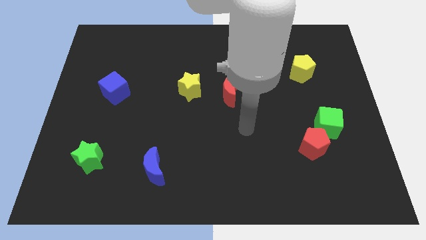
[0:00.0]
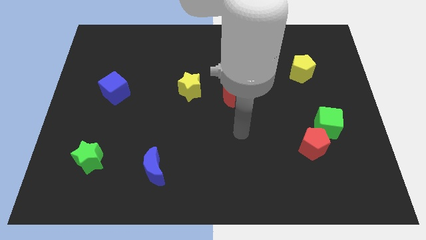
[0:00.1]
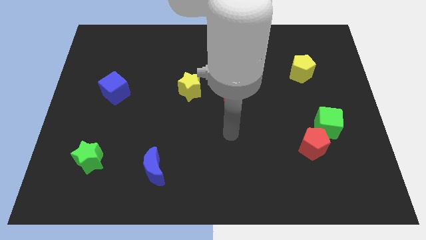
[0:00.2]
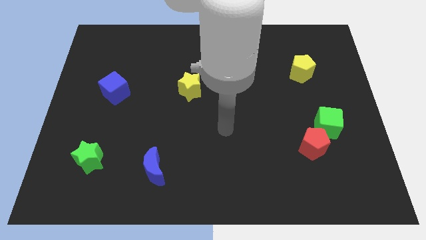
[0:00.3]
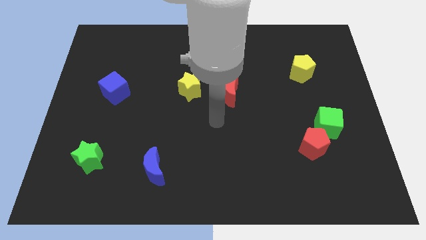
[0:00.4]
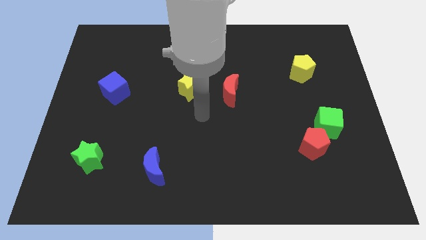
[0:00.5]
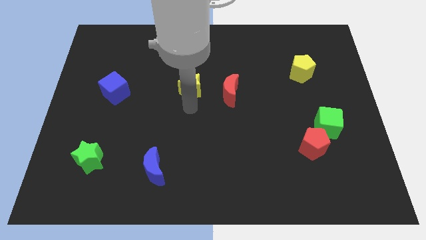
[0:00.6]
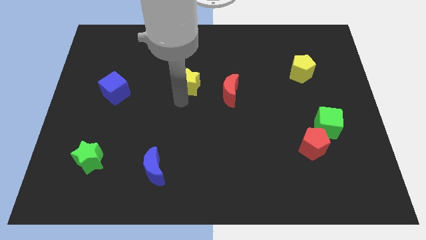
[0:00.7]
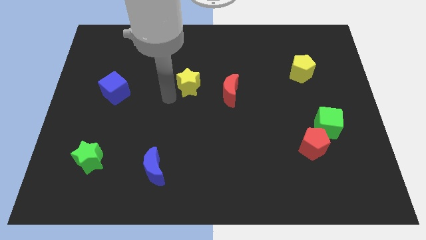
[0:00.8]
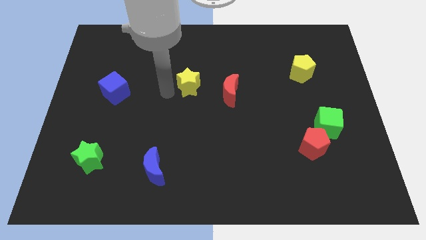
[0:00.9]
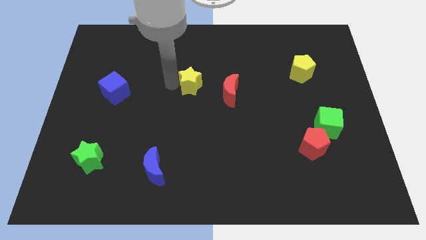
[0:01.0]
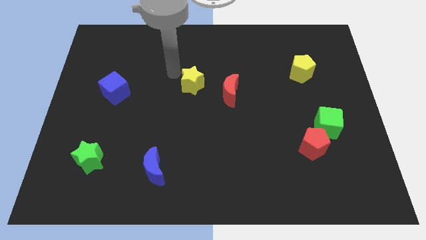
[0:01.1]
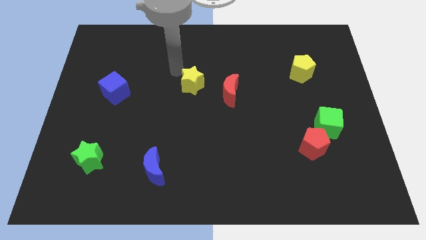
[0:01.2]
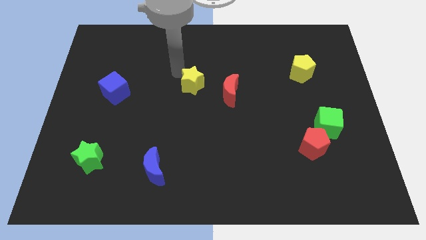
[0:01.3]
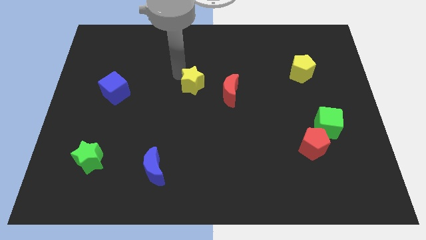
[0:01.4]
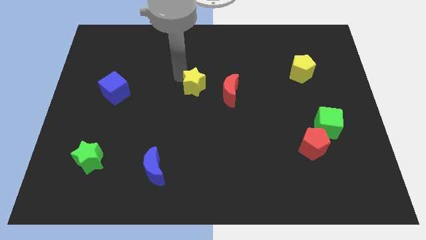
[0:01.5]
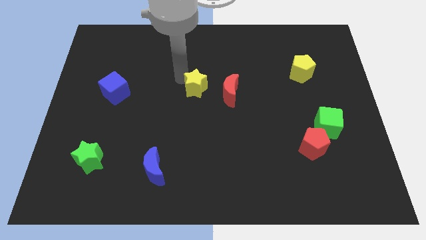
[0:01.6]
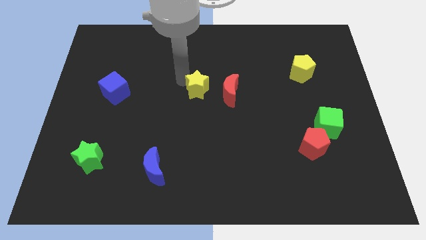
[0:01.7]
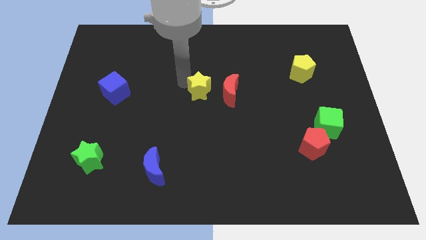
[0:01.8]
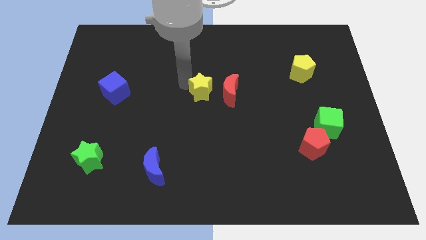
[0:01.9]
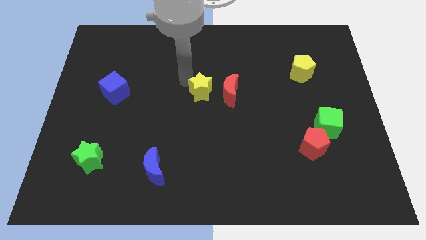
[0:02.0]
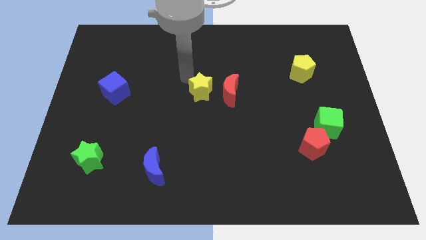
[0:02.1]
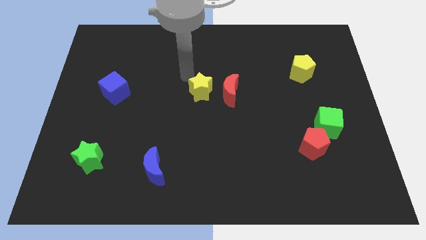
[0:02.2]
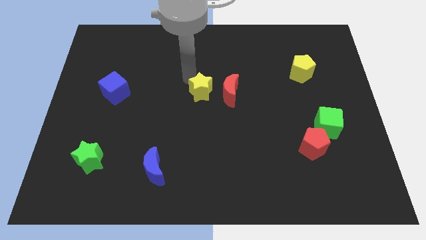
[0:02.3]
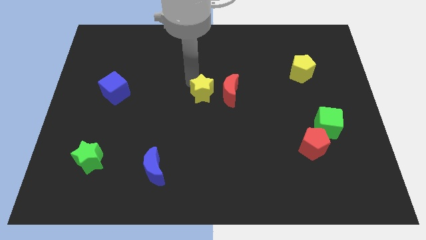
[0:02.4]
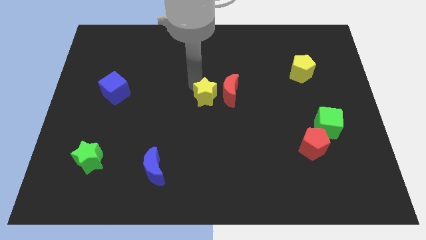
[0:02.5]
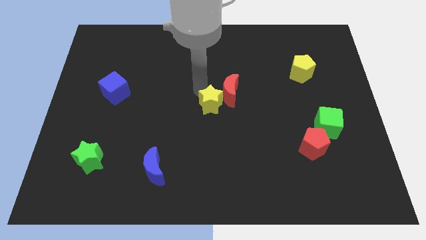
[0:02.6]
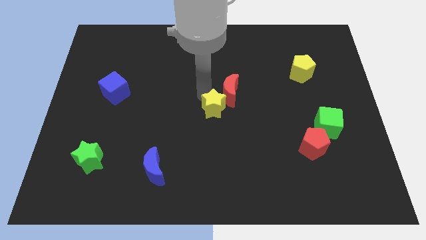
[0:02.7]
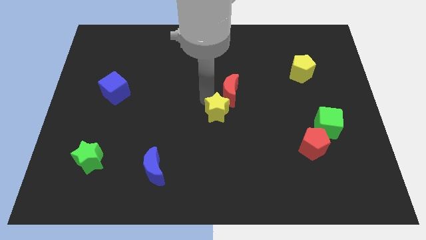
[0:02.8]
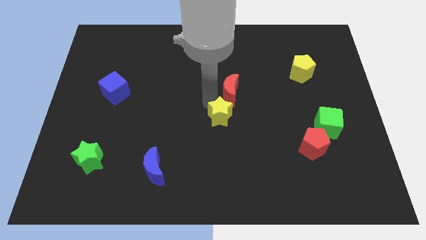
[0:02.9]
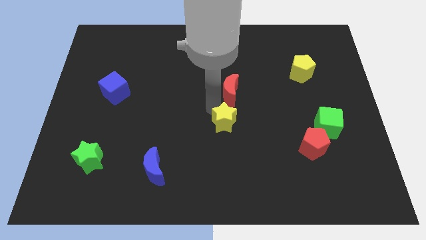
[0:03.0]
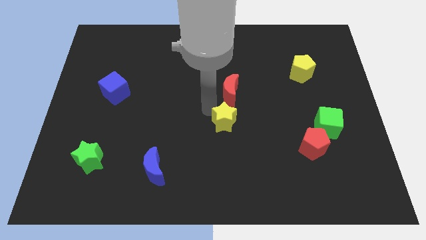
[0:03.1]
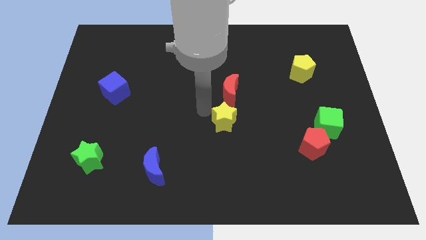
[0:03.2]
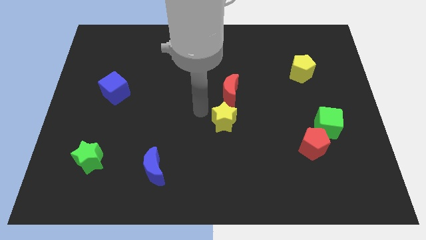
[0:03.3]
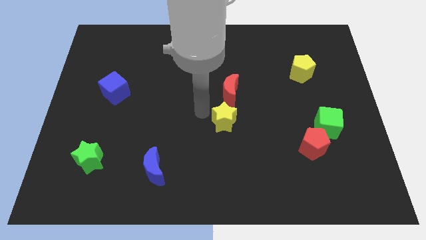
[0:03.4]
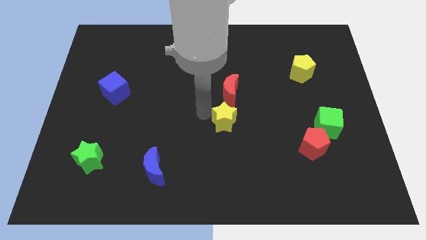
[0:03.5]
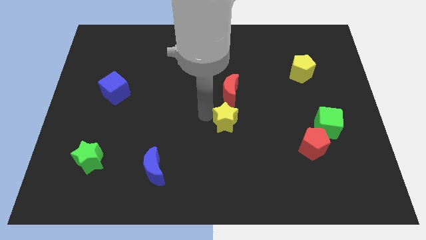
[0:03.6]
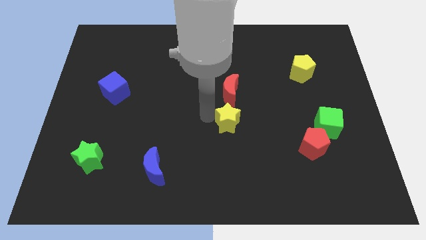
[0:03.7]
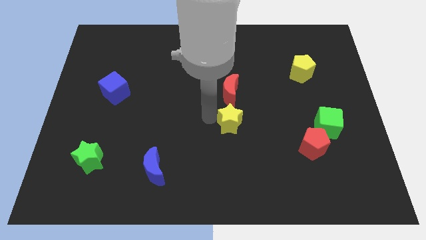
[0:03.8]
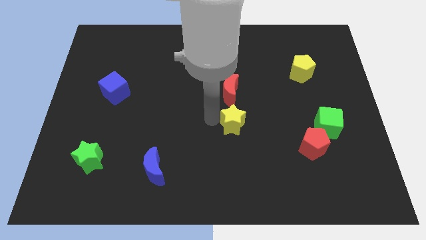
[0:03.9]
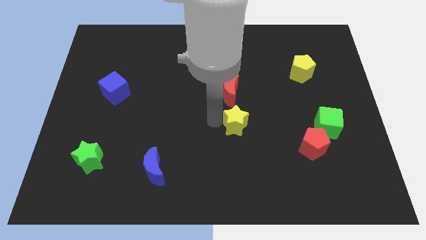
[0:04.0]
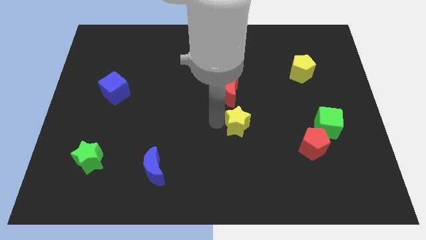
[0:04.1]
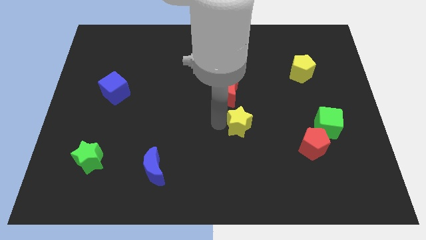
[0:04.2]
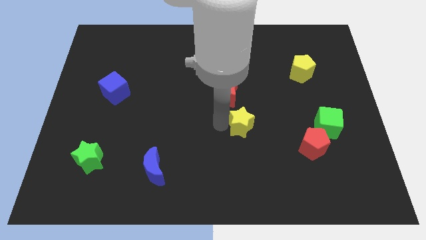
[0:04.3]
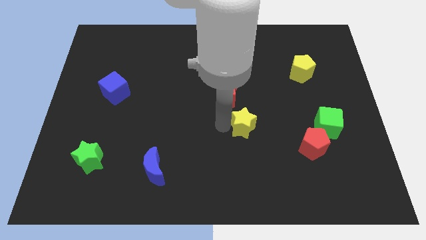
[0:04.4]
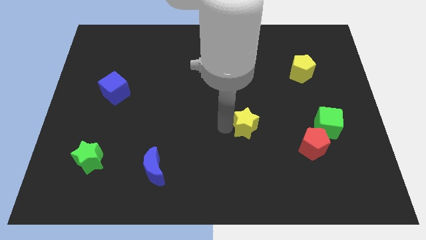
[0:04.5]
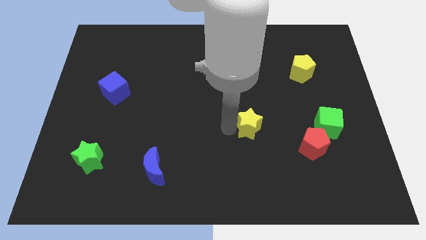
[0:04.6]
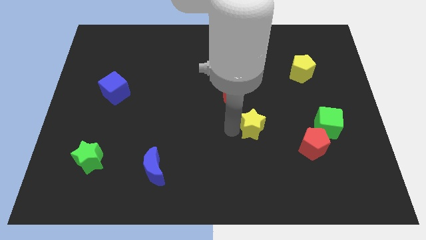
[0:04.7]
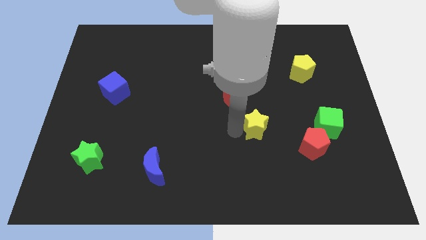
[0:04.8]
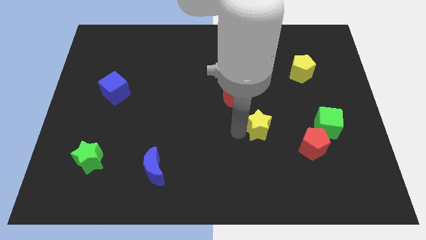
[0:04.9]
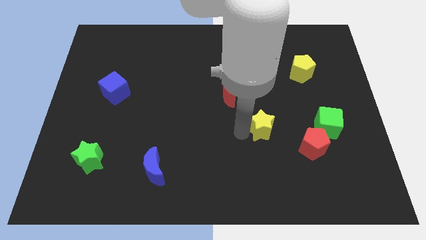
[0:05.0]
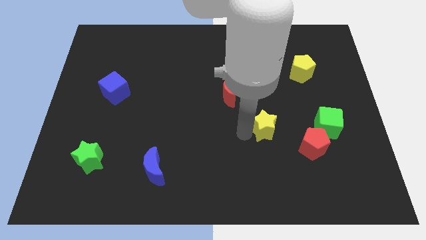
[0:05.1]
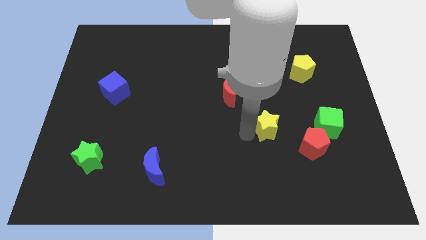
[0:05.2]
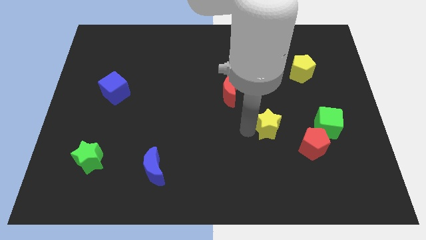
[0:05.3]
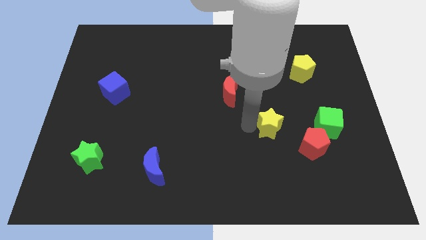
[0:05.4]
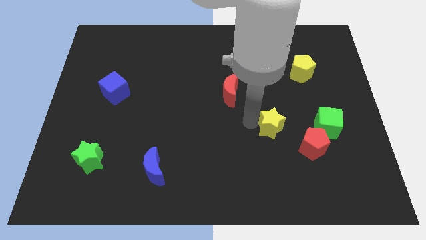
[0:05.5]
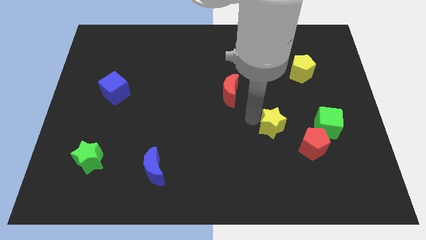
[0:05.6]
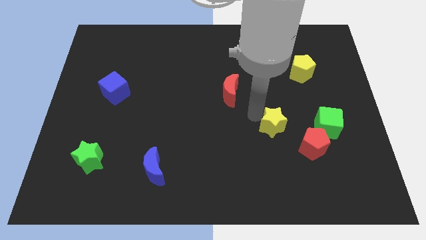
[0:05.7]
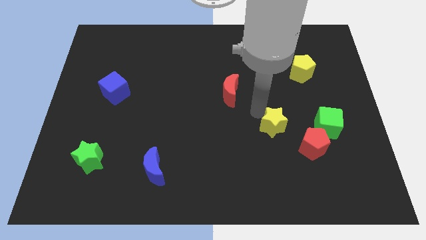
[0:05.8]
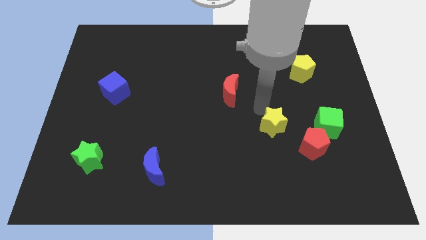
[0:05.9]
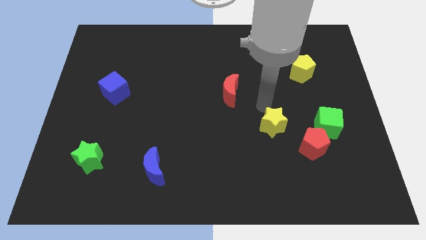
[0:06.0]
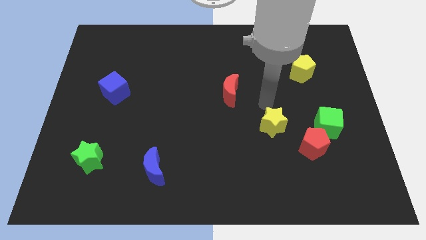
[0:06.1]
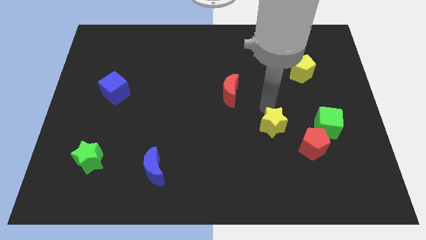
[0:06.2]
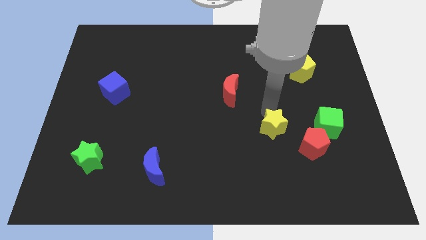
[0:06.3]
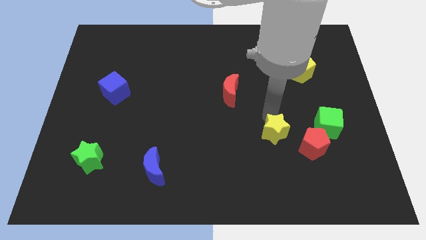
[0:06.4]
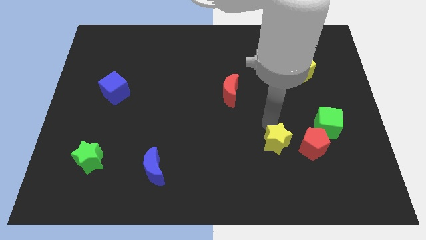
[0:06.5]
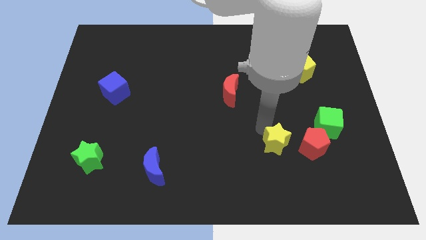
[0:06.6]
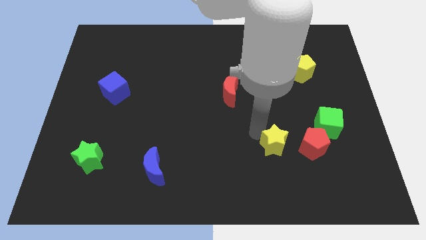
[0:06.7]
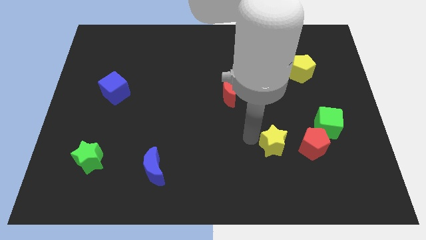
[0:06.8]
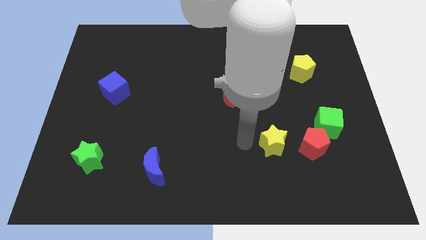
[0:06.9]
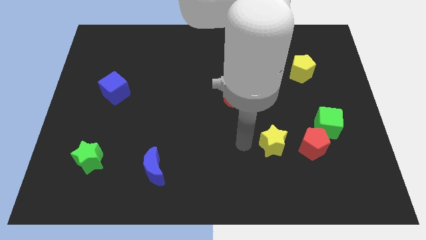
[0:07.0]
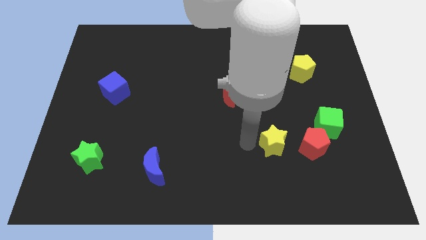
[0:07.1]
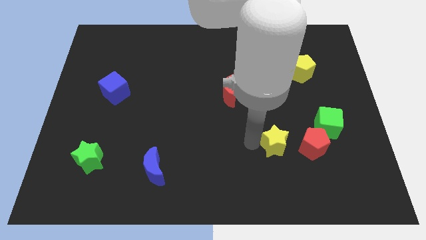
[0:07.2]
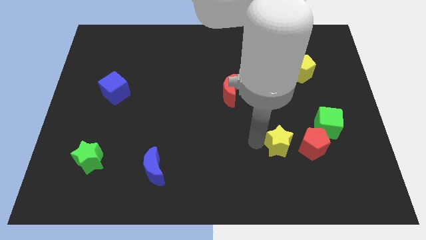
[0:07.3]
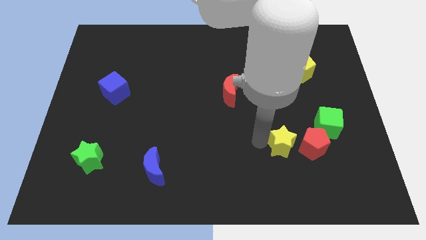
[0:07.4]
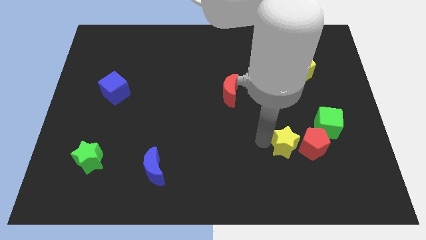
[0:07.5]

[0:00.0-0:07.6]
put the yellow star next to the red pentagon
